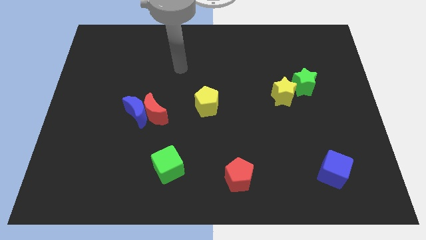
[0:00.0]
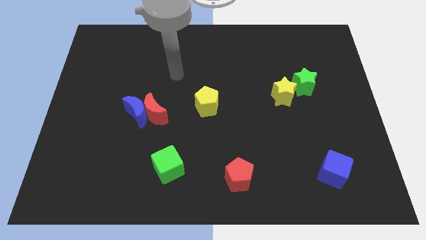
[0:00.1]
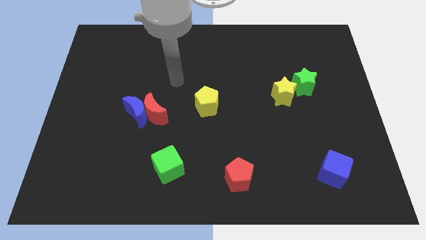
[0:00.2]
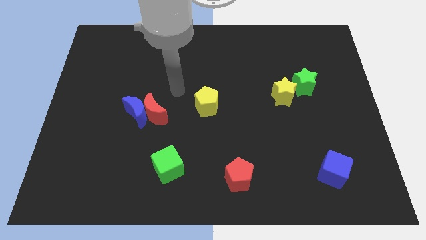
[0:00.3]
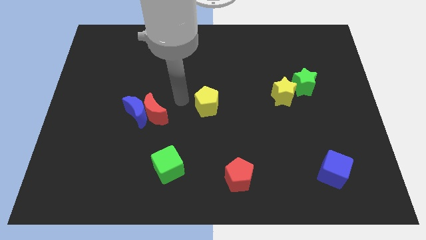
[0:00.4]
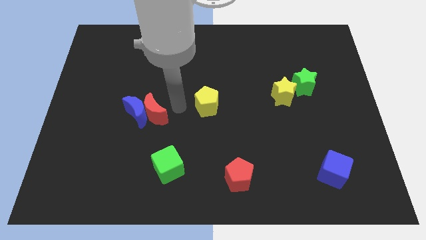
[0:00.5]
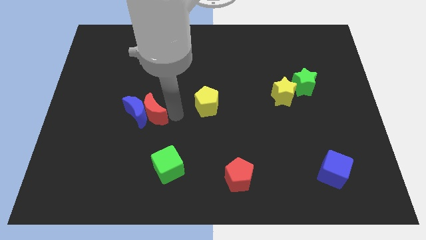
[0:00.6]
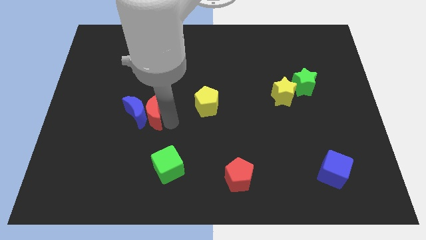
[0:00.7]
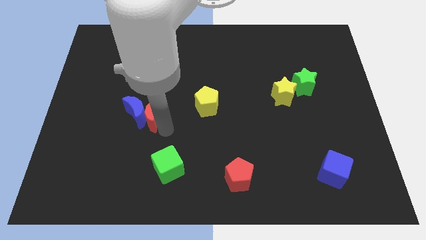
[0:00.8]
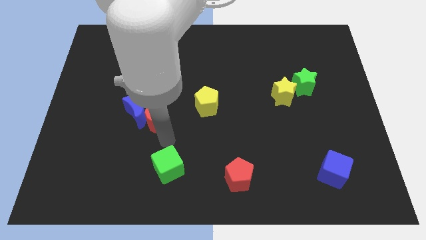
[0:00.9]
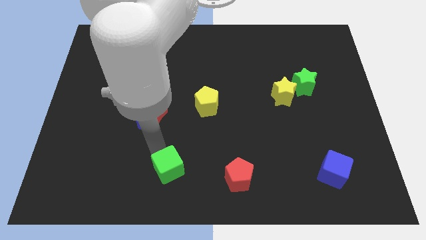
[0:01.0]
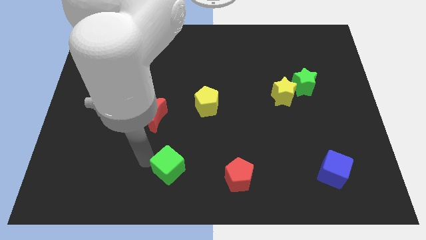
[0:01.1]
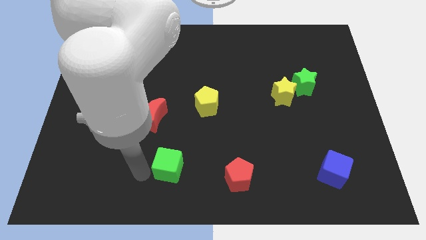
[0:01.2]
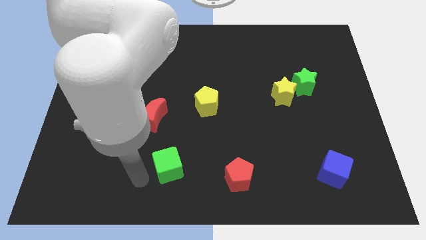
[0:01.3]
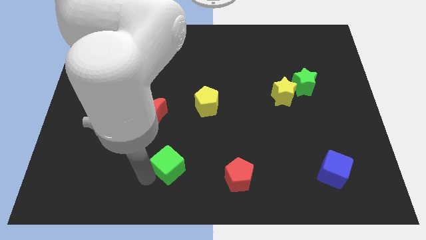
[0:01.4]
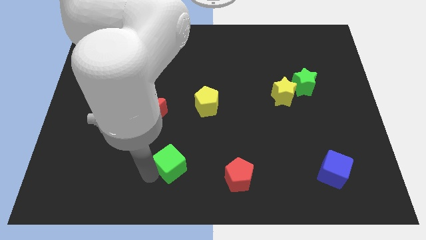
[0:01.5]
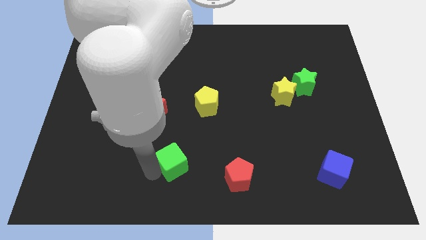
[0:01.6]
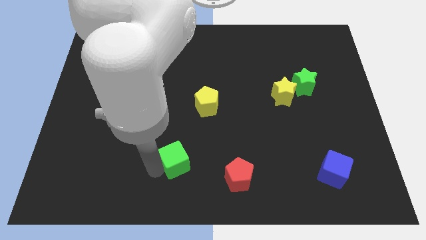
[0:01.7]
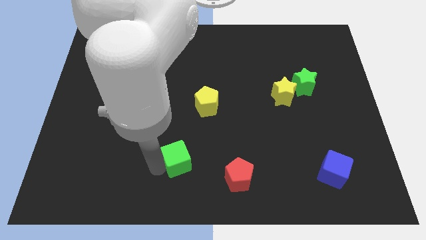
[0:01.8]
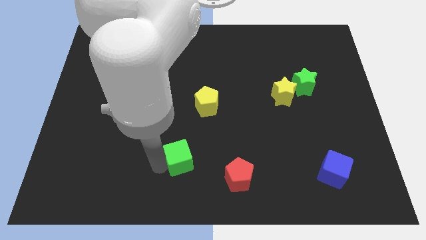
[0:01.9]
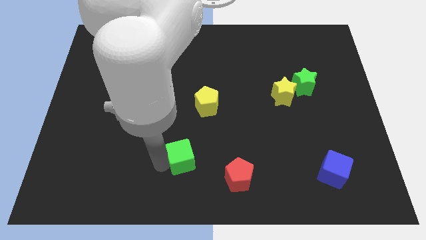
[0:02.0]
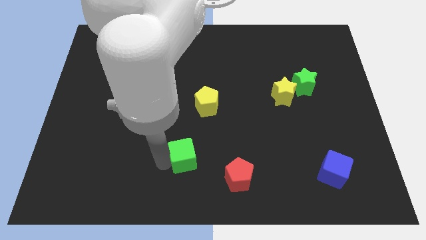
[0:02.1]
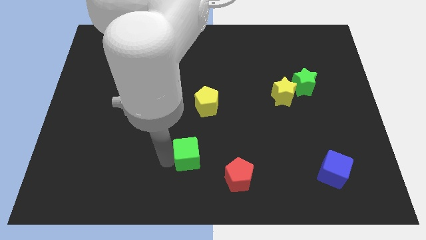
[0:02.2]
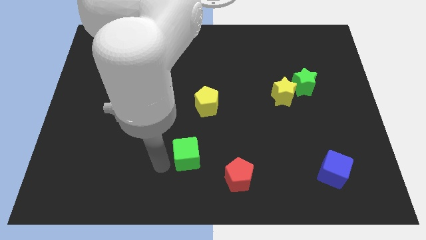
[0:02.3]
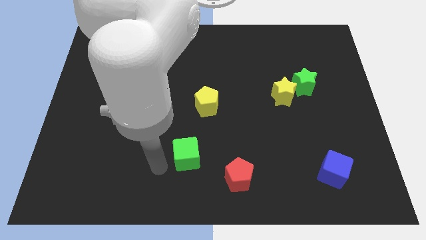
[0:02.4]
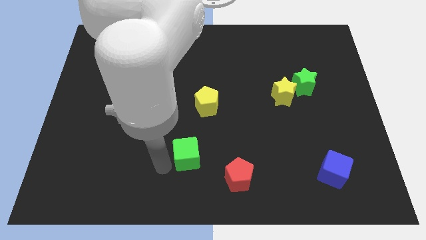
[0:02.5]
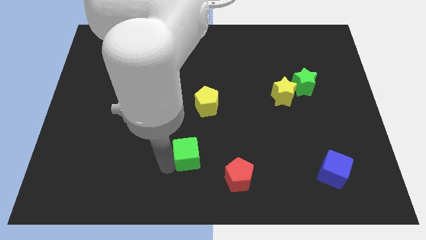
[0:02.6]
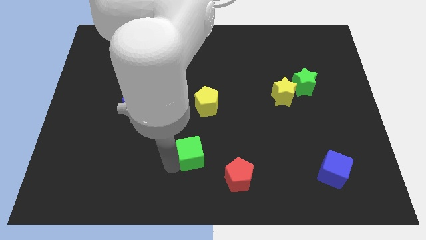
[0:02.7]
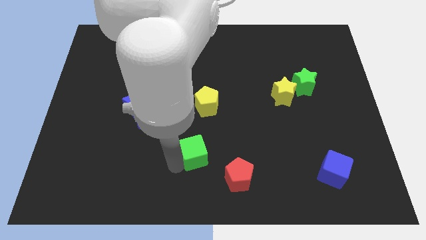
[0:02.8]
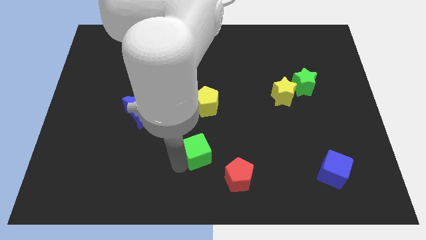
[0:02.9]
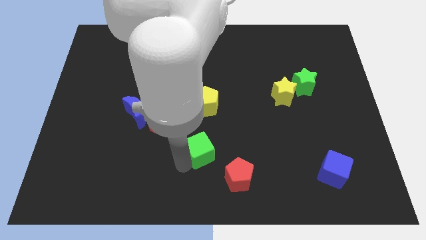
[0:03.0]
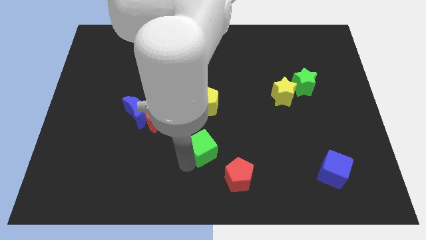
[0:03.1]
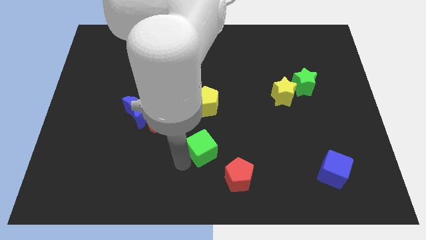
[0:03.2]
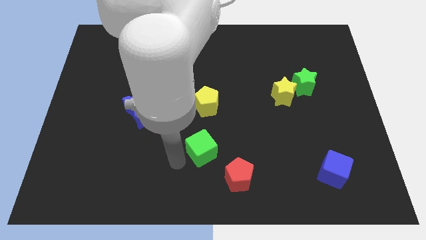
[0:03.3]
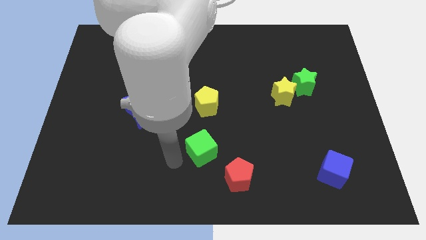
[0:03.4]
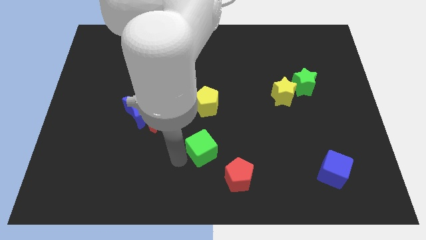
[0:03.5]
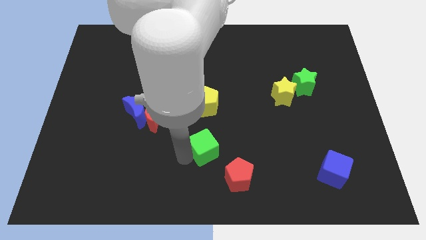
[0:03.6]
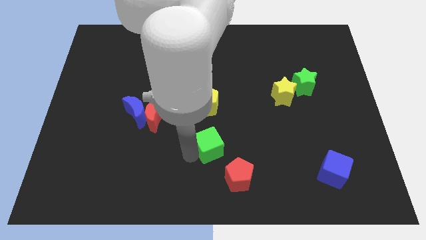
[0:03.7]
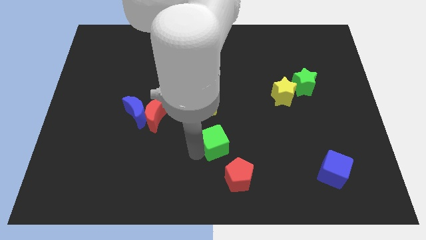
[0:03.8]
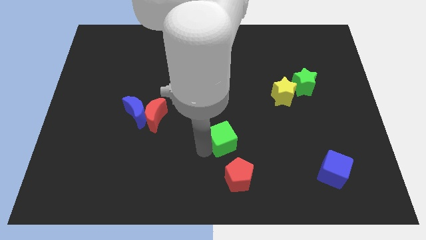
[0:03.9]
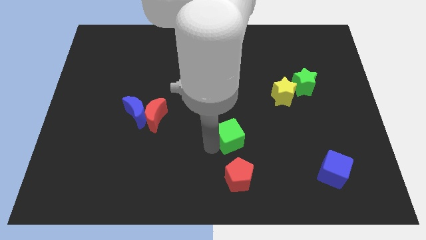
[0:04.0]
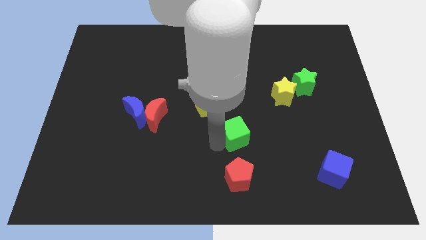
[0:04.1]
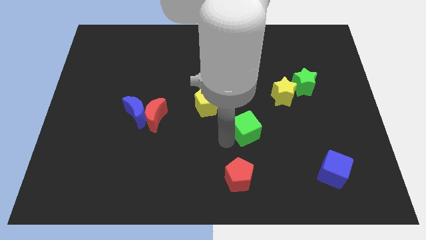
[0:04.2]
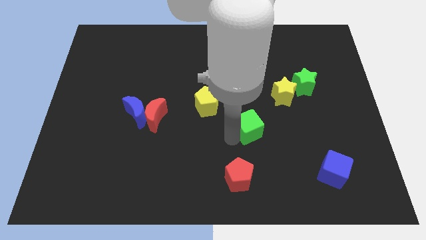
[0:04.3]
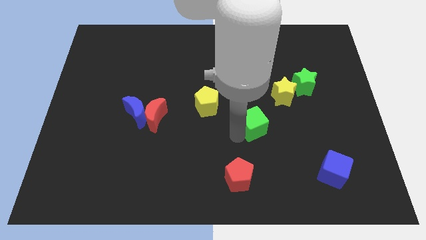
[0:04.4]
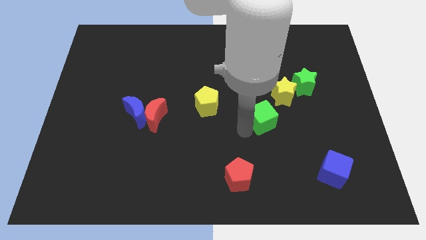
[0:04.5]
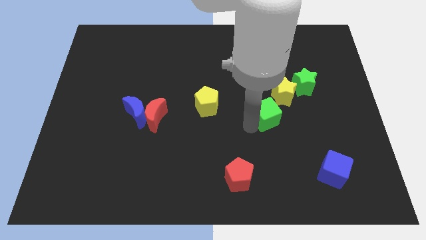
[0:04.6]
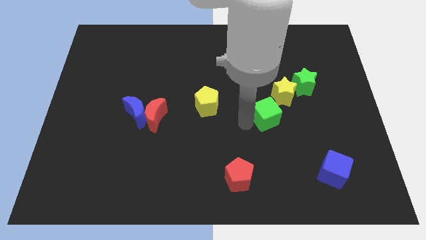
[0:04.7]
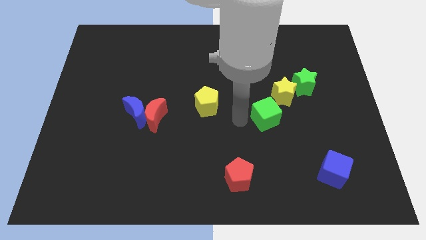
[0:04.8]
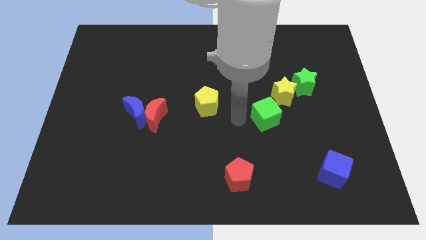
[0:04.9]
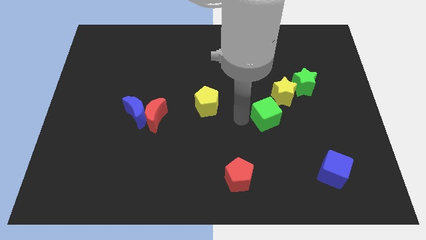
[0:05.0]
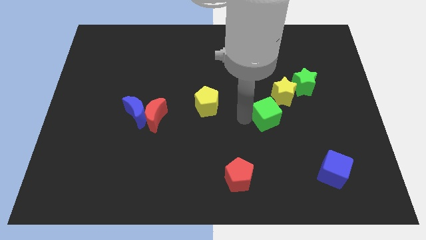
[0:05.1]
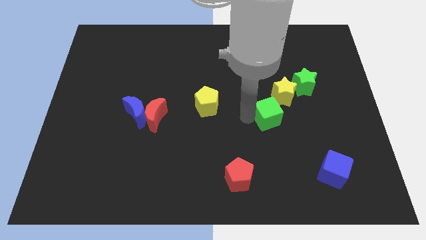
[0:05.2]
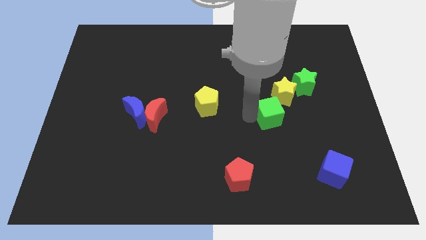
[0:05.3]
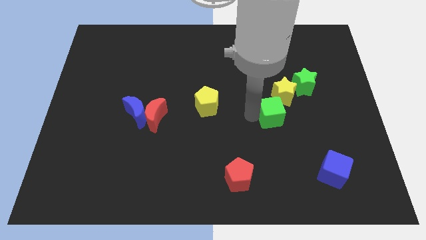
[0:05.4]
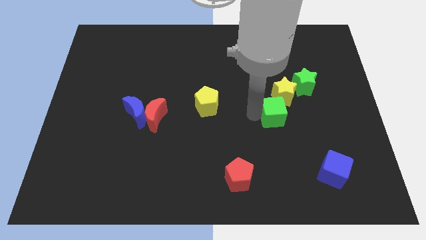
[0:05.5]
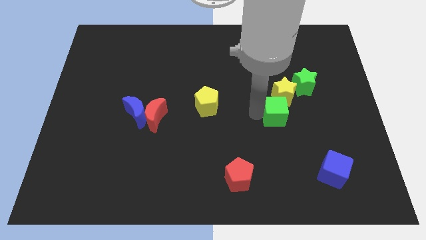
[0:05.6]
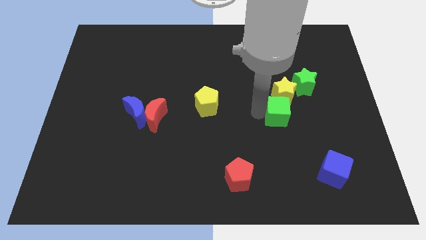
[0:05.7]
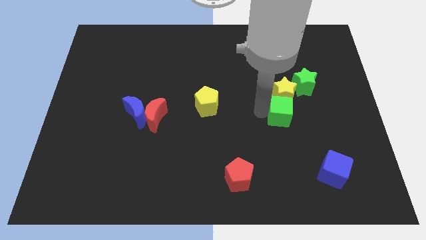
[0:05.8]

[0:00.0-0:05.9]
slide the green cube to the bottom right side of the yellow star

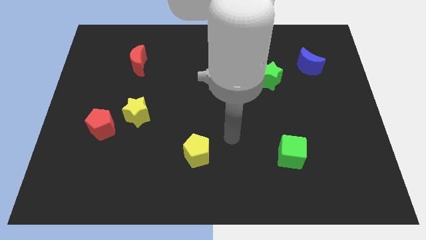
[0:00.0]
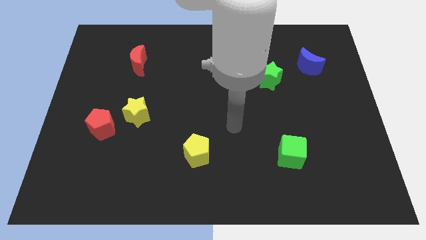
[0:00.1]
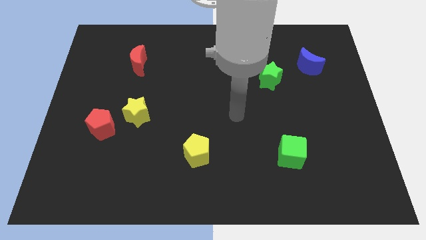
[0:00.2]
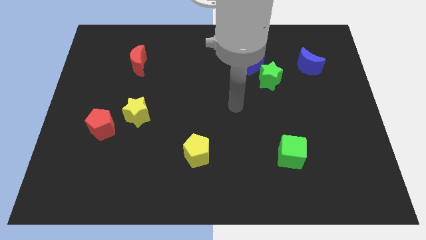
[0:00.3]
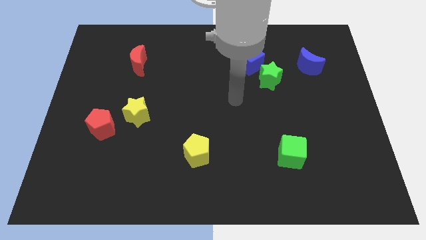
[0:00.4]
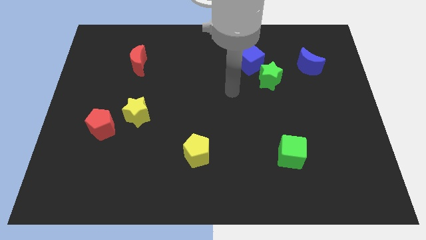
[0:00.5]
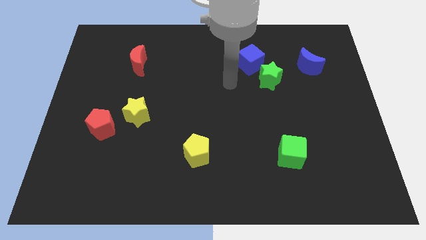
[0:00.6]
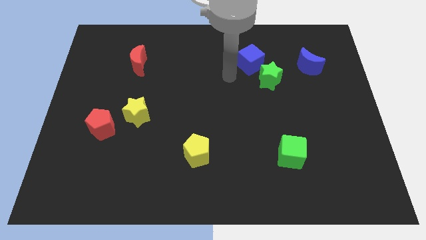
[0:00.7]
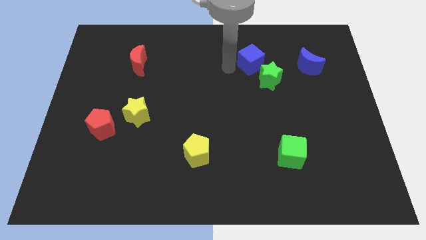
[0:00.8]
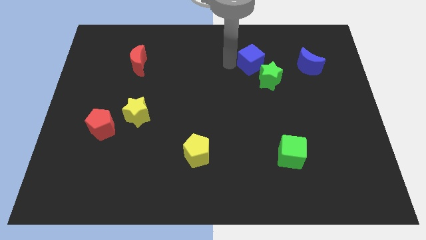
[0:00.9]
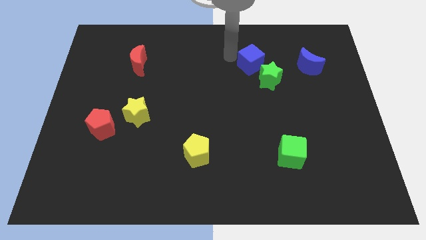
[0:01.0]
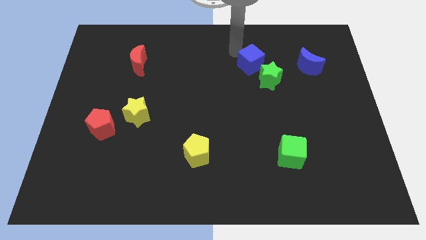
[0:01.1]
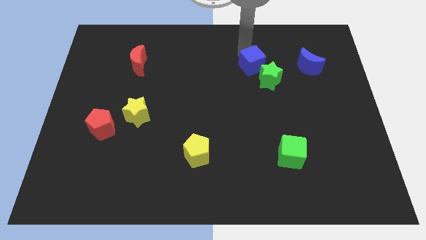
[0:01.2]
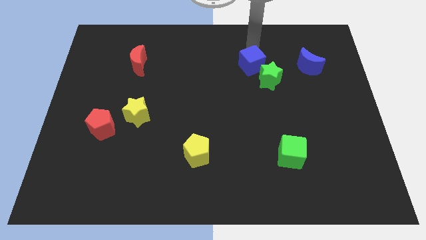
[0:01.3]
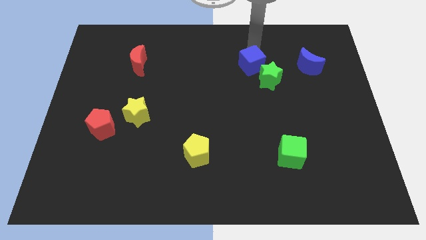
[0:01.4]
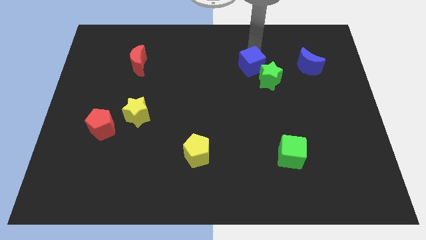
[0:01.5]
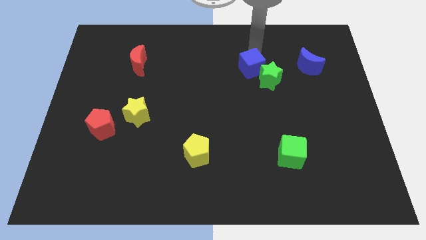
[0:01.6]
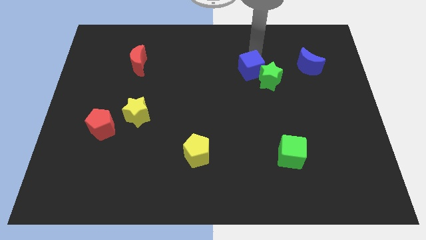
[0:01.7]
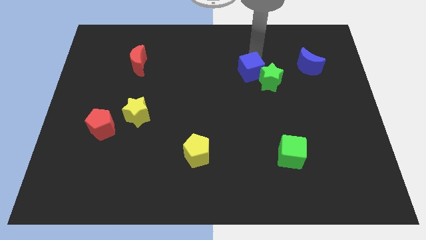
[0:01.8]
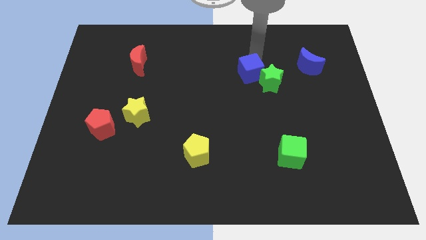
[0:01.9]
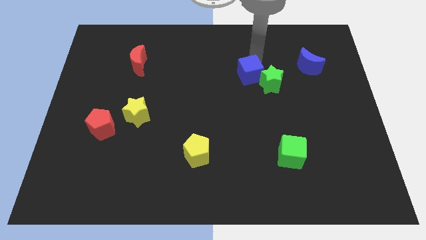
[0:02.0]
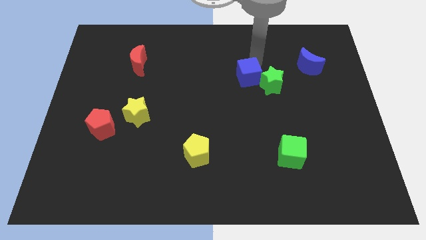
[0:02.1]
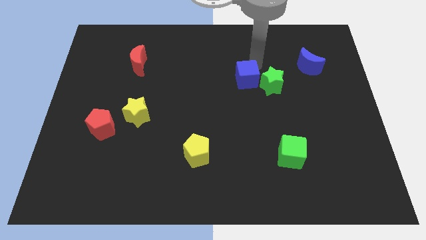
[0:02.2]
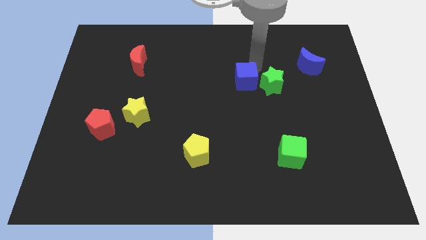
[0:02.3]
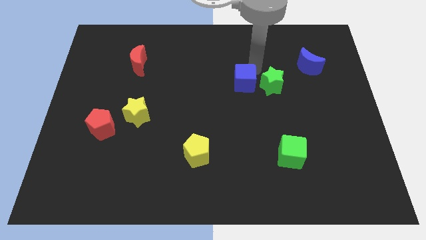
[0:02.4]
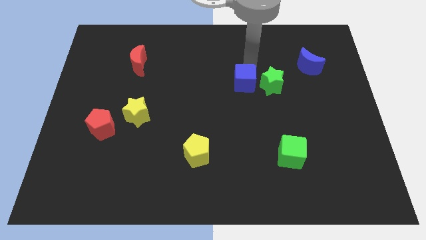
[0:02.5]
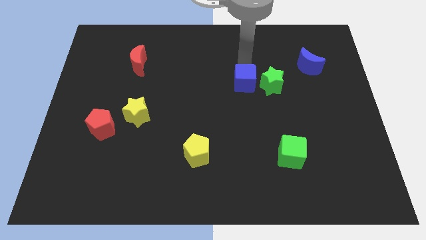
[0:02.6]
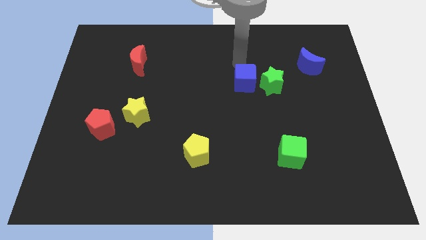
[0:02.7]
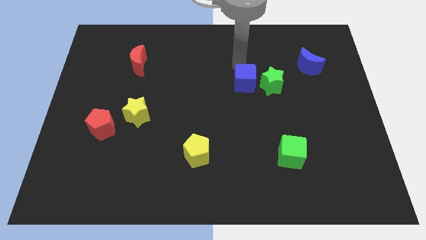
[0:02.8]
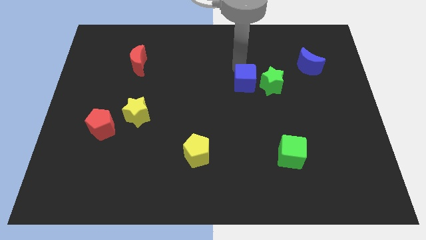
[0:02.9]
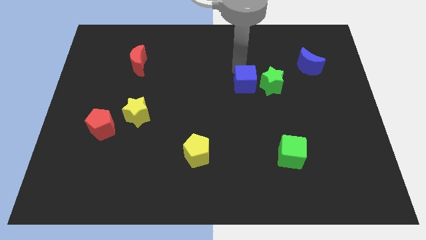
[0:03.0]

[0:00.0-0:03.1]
put the blue cube to the bottom left of the green star
